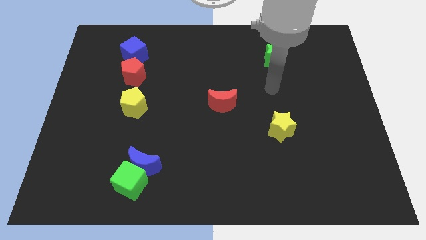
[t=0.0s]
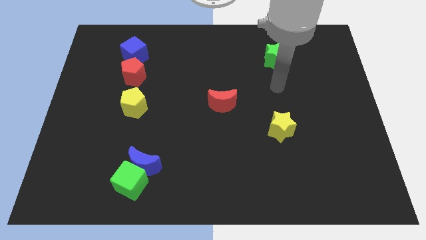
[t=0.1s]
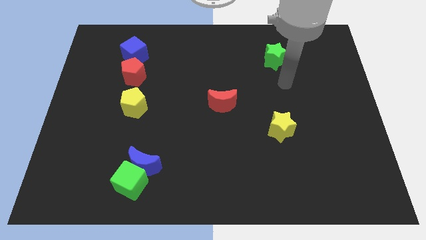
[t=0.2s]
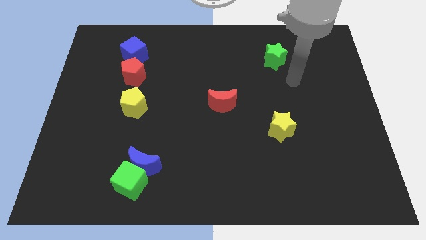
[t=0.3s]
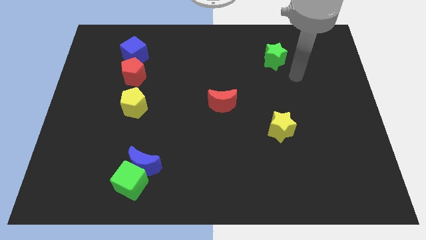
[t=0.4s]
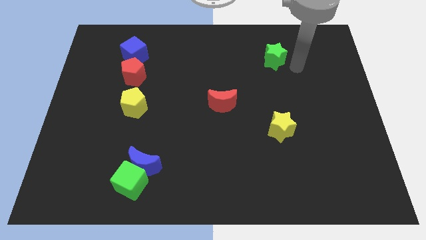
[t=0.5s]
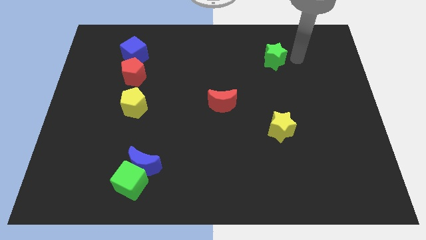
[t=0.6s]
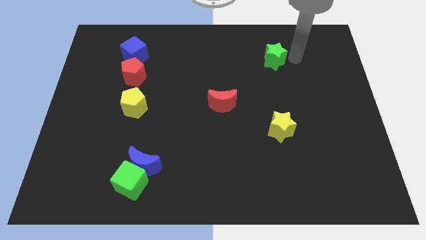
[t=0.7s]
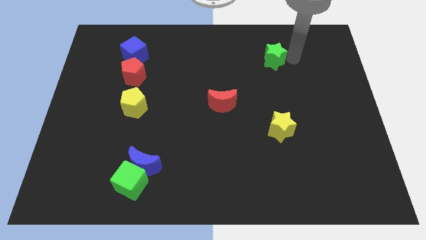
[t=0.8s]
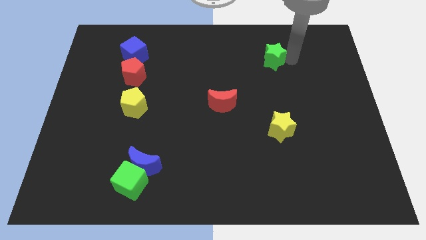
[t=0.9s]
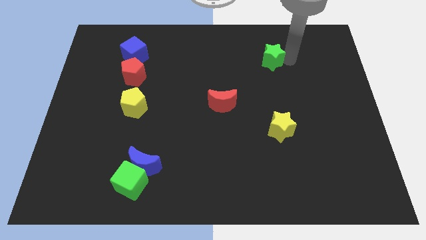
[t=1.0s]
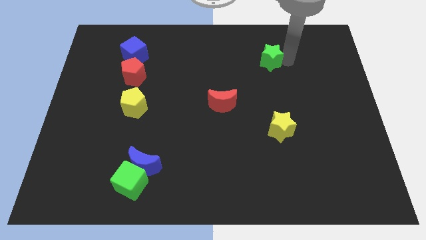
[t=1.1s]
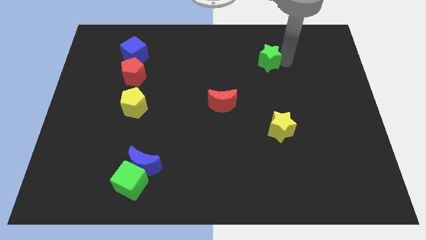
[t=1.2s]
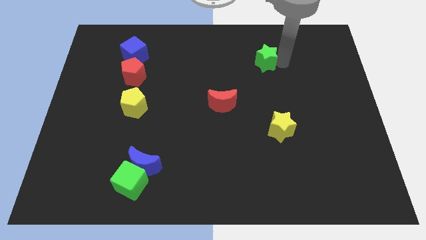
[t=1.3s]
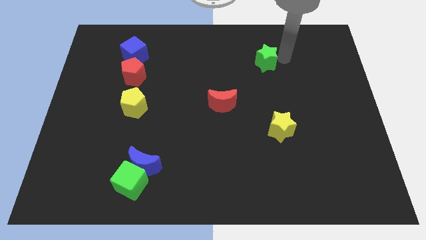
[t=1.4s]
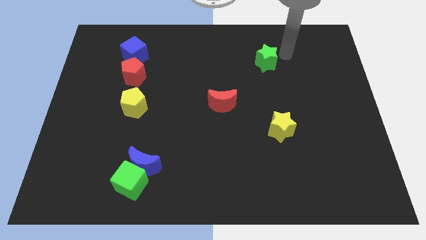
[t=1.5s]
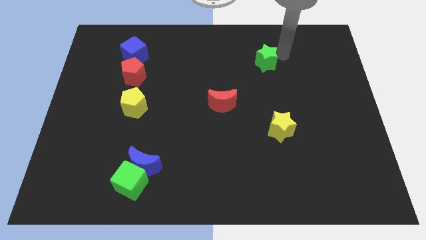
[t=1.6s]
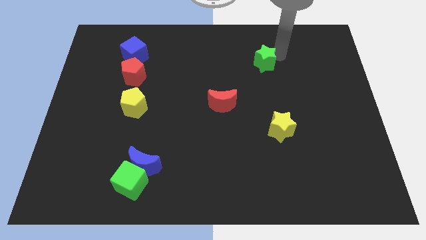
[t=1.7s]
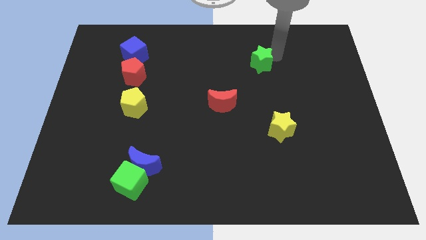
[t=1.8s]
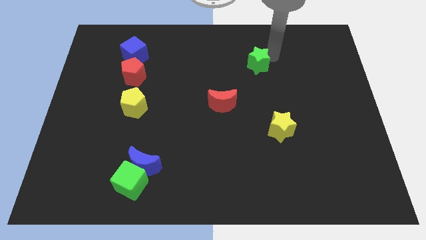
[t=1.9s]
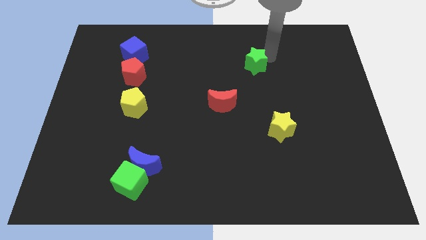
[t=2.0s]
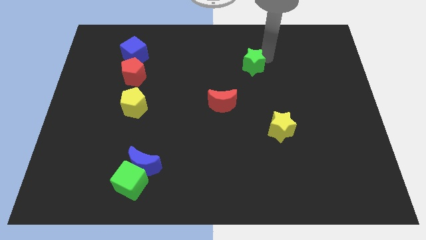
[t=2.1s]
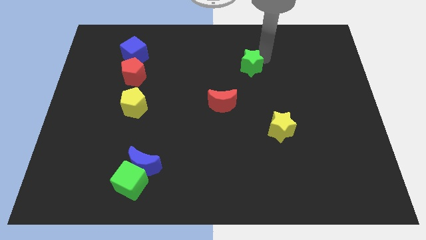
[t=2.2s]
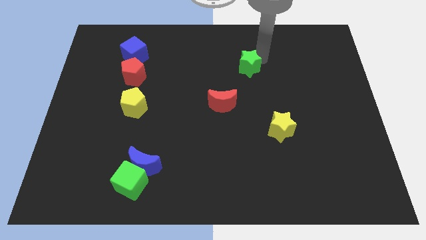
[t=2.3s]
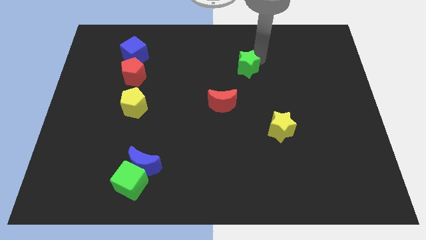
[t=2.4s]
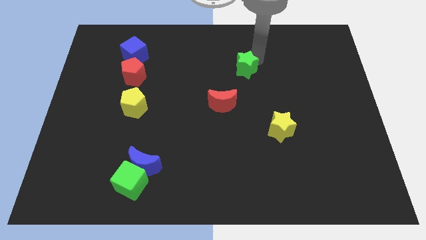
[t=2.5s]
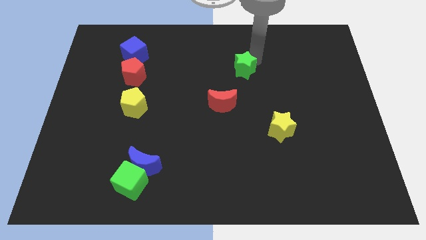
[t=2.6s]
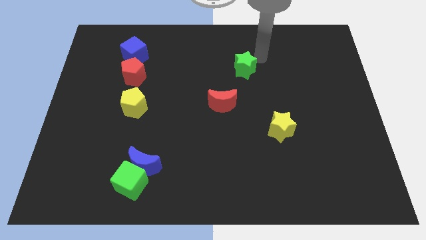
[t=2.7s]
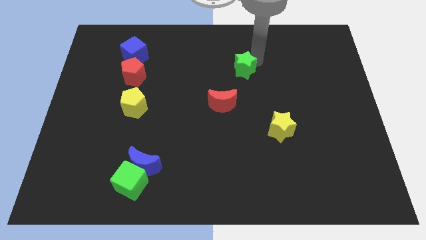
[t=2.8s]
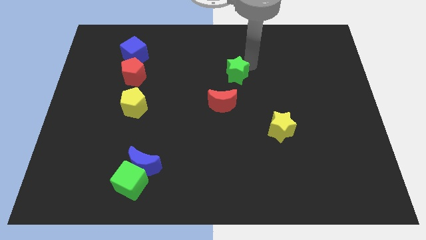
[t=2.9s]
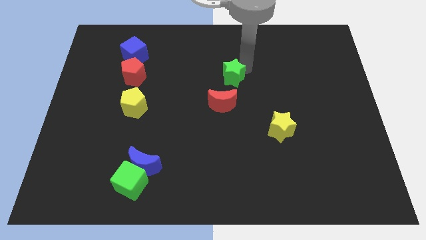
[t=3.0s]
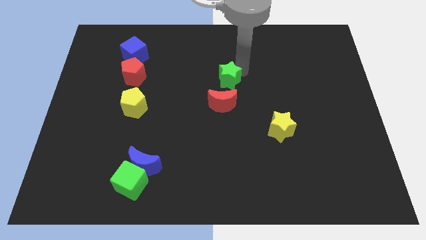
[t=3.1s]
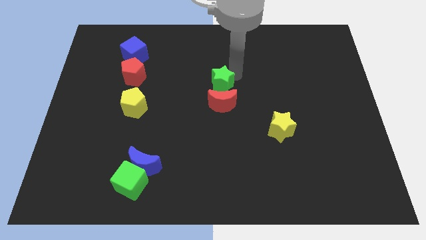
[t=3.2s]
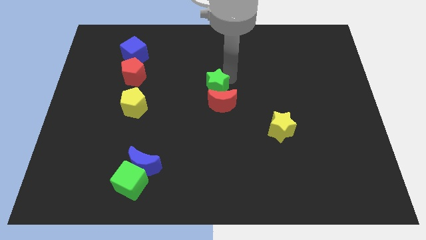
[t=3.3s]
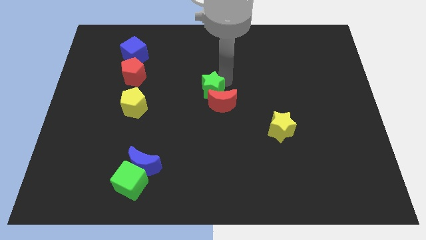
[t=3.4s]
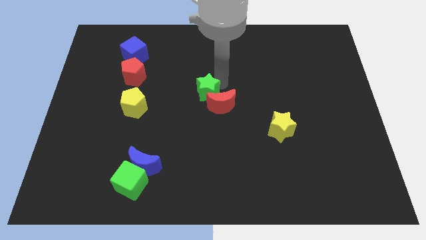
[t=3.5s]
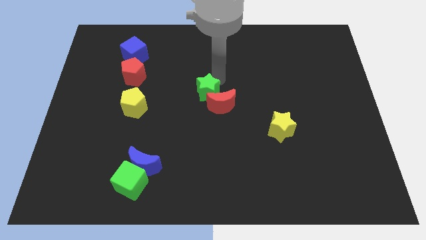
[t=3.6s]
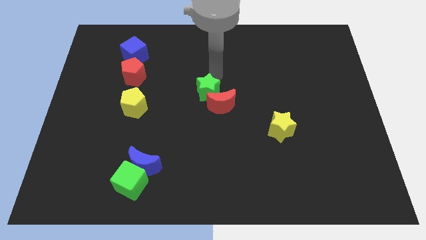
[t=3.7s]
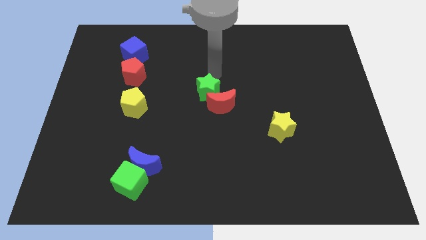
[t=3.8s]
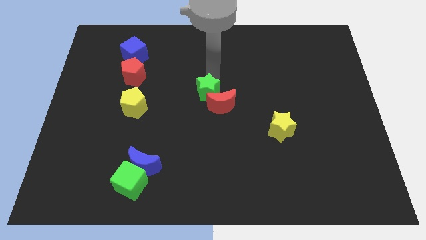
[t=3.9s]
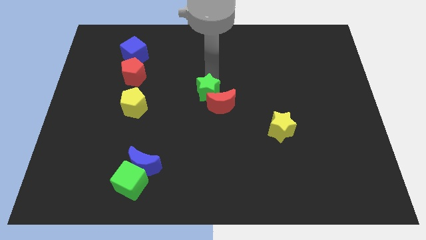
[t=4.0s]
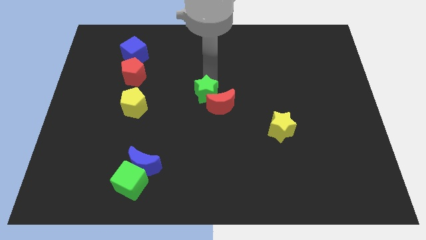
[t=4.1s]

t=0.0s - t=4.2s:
slide the green star downwards and then to the left

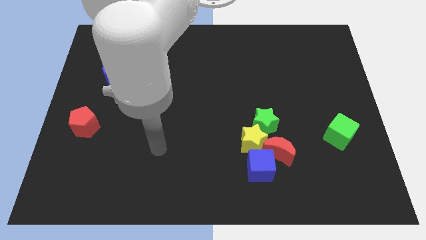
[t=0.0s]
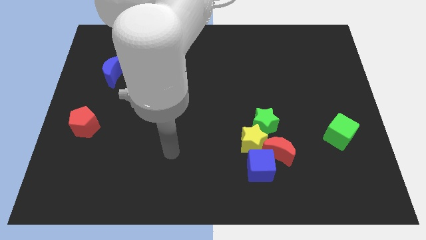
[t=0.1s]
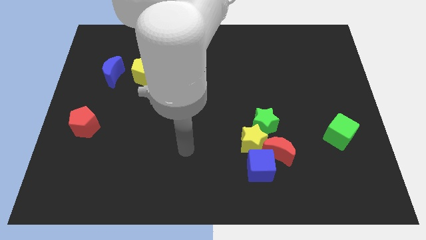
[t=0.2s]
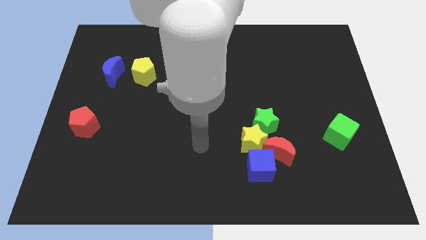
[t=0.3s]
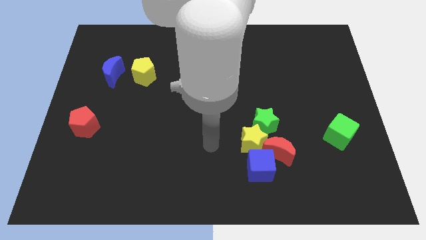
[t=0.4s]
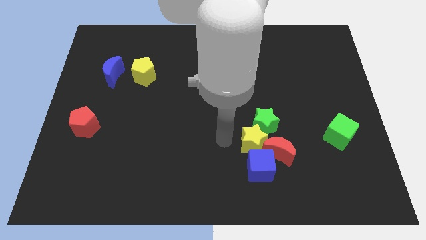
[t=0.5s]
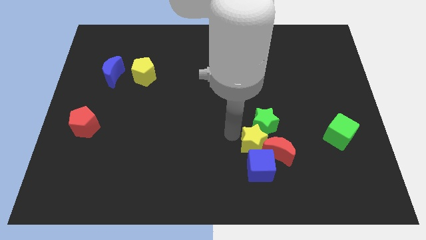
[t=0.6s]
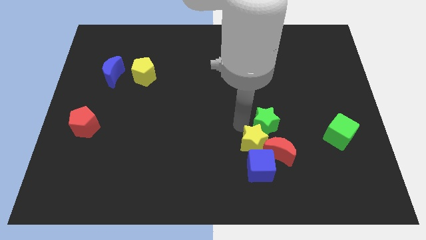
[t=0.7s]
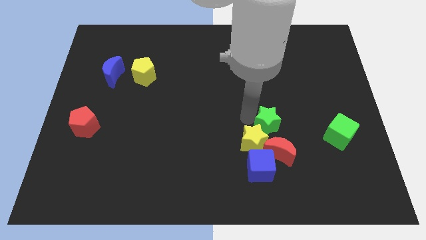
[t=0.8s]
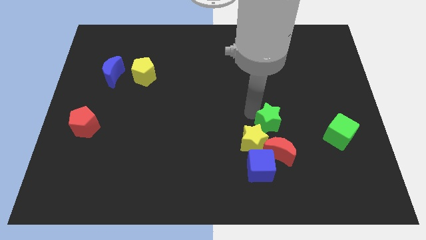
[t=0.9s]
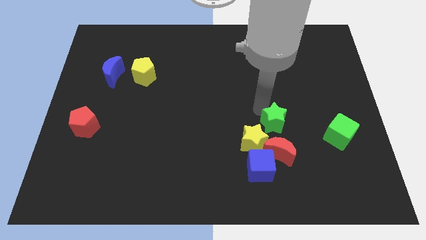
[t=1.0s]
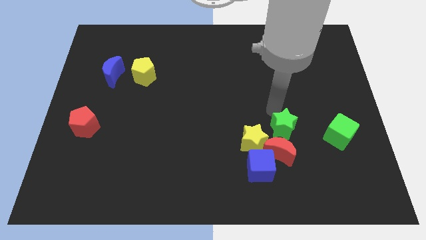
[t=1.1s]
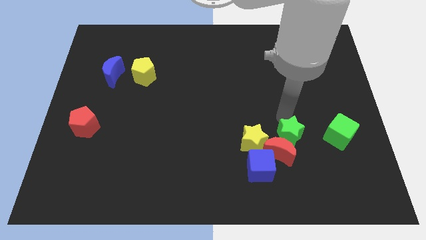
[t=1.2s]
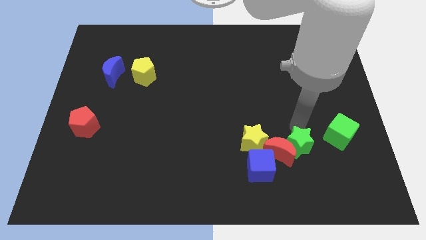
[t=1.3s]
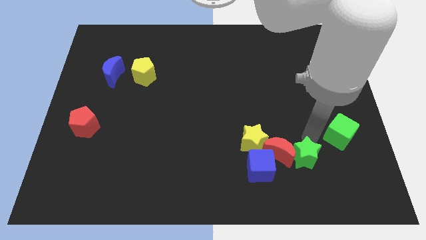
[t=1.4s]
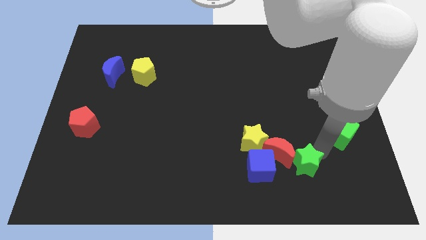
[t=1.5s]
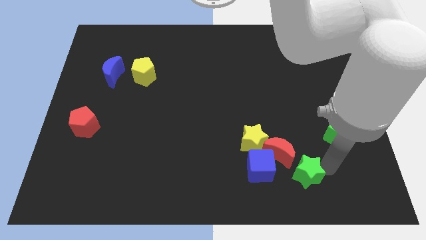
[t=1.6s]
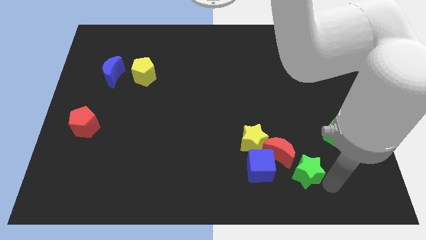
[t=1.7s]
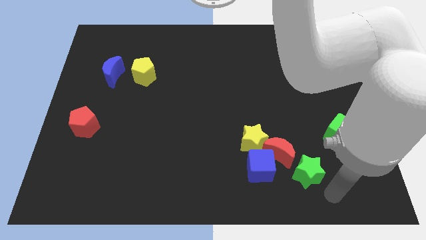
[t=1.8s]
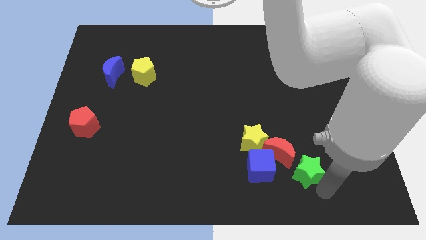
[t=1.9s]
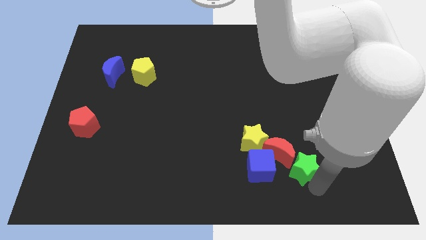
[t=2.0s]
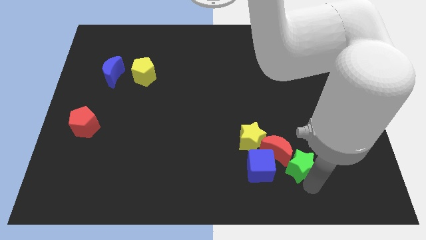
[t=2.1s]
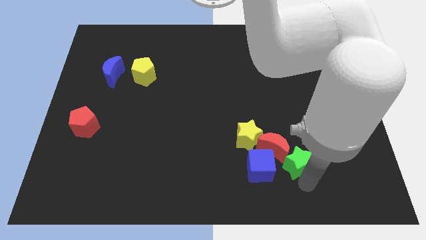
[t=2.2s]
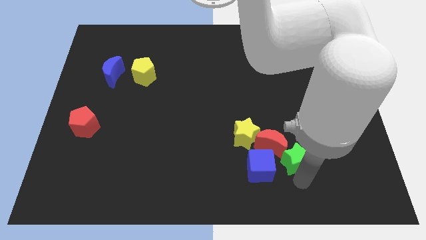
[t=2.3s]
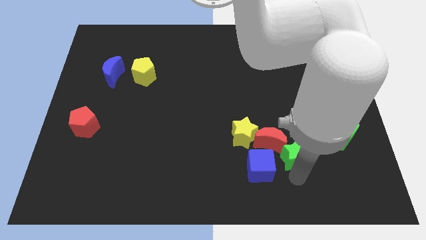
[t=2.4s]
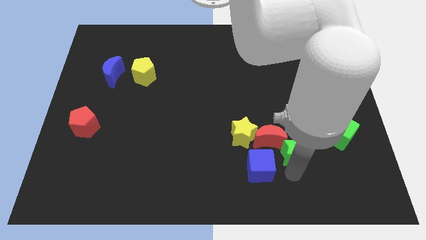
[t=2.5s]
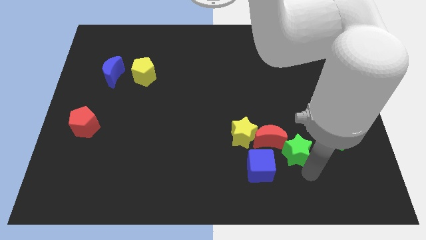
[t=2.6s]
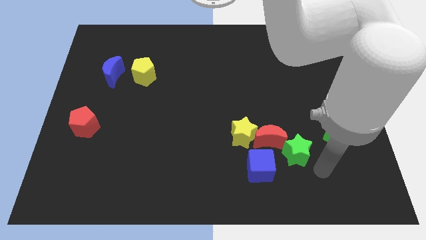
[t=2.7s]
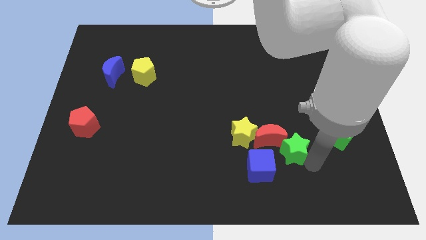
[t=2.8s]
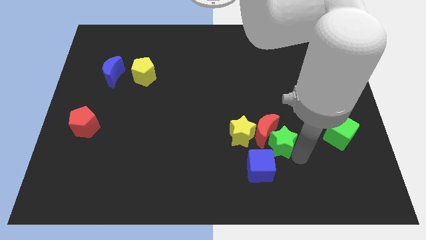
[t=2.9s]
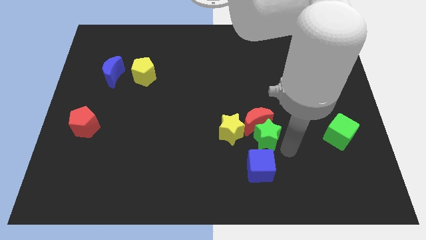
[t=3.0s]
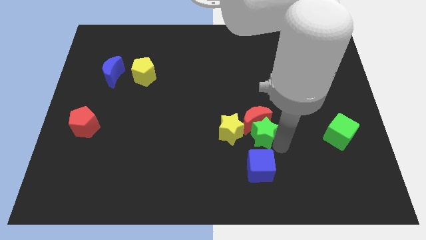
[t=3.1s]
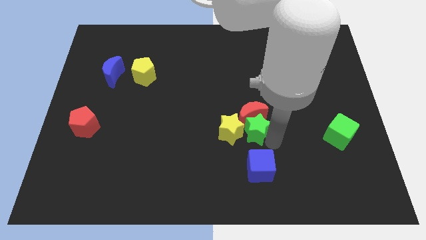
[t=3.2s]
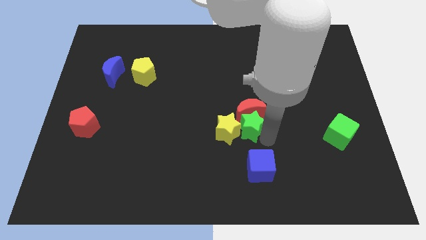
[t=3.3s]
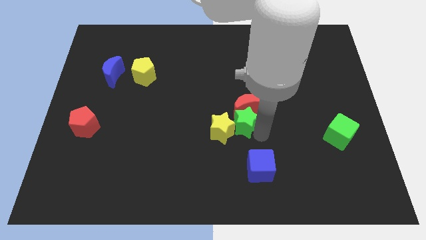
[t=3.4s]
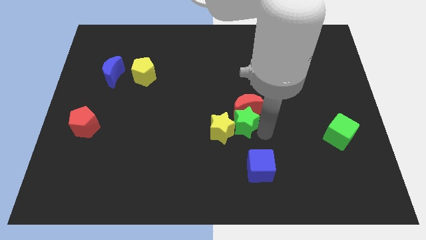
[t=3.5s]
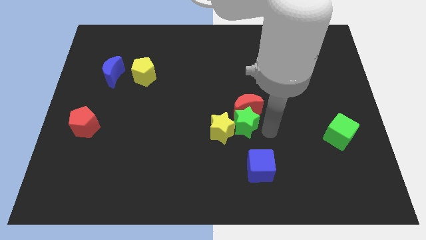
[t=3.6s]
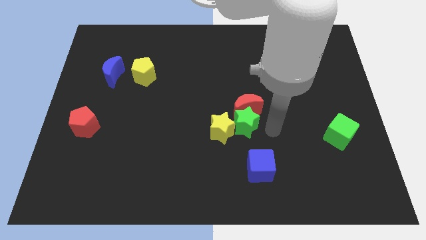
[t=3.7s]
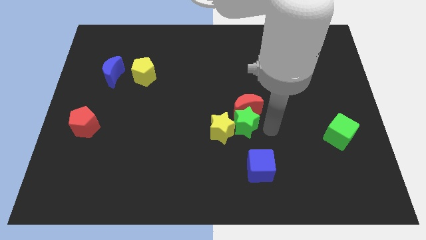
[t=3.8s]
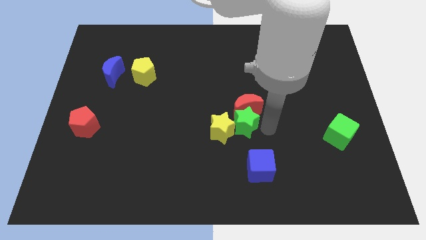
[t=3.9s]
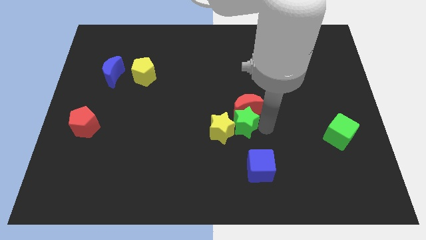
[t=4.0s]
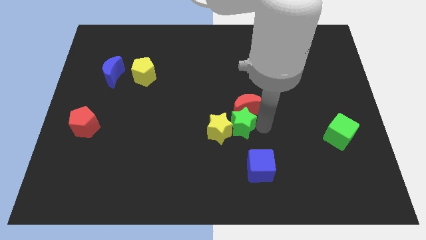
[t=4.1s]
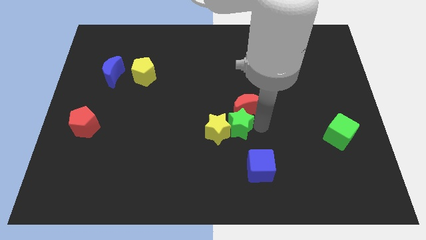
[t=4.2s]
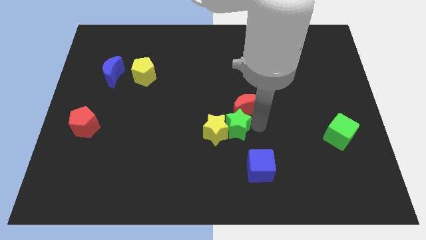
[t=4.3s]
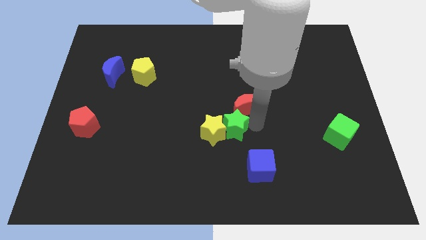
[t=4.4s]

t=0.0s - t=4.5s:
slightly move the green star left
